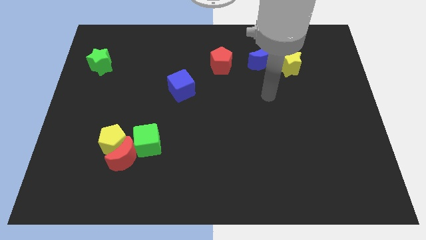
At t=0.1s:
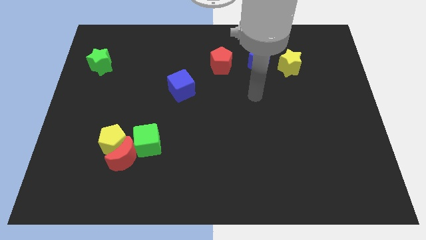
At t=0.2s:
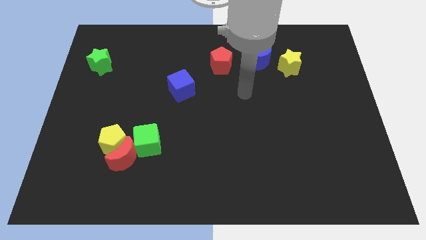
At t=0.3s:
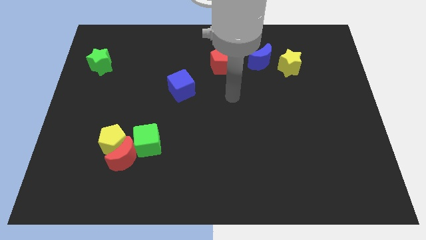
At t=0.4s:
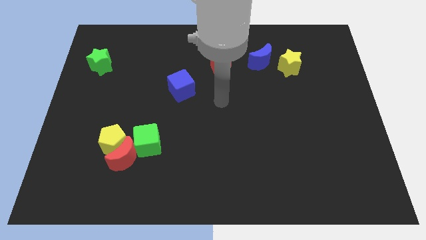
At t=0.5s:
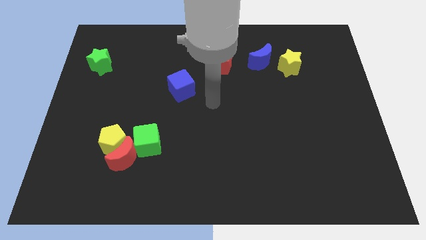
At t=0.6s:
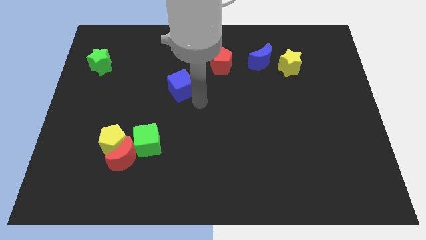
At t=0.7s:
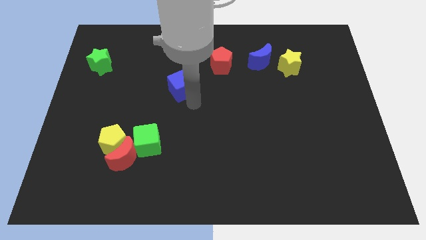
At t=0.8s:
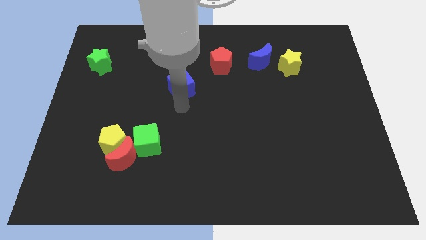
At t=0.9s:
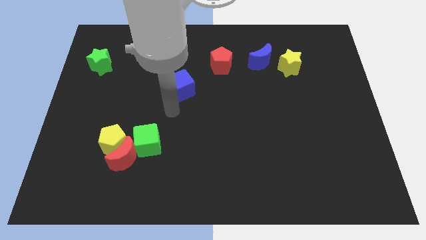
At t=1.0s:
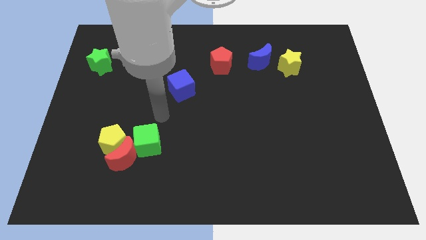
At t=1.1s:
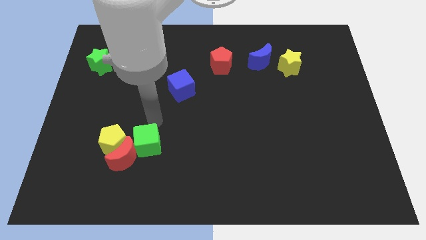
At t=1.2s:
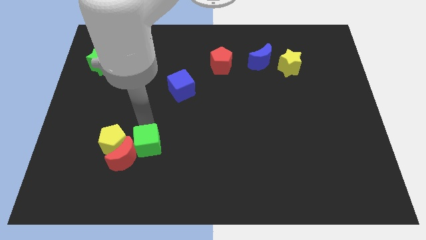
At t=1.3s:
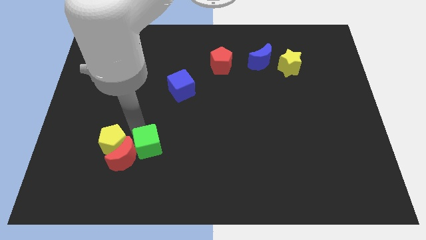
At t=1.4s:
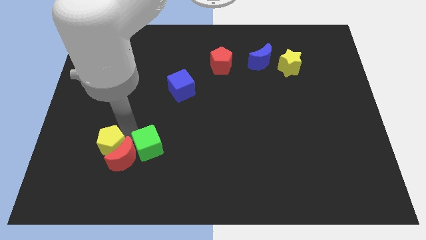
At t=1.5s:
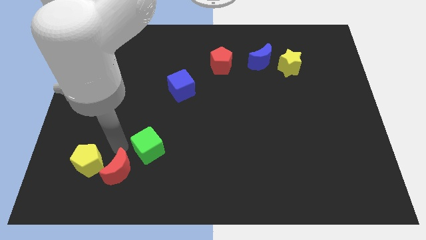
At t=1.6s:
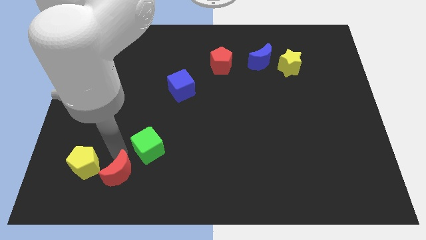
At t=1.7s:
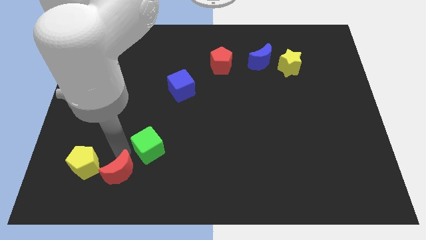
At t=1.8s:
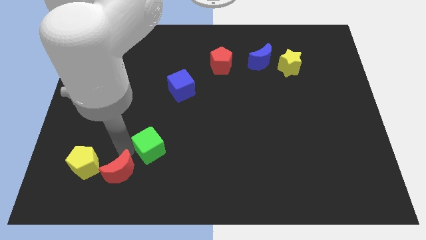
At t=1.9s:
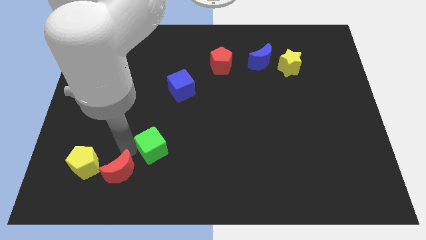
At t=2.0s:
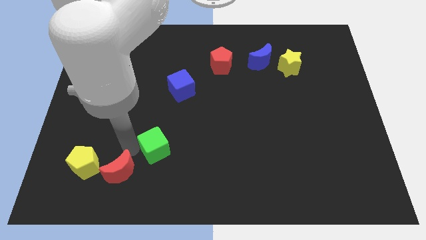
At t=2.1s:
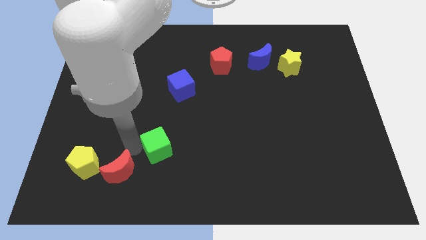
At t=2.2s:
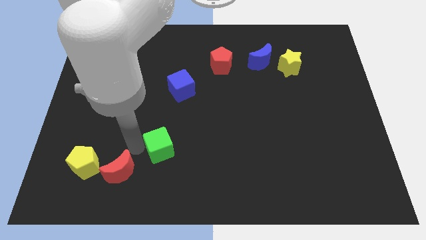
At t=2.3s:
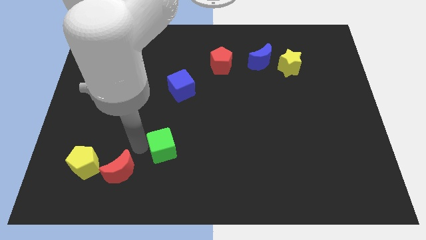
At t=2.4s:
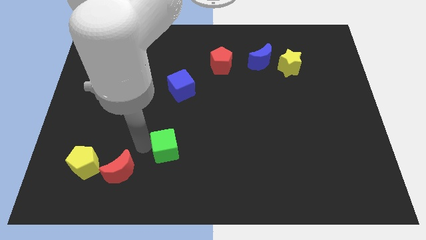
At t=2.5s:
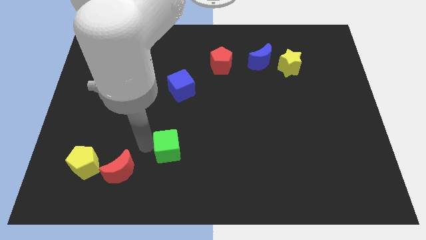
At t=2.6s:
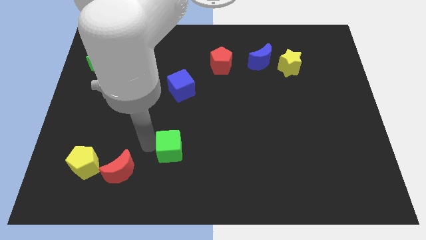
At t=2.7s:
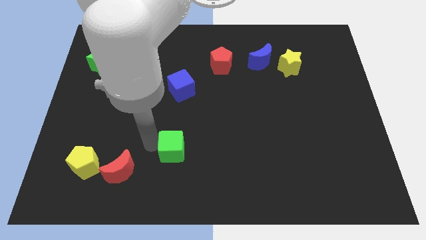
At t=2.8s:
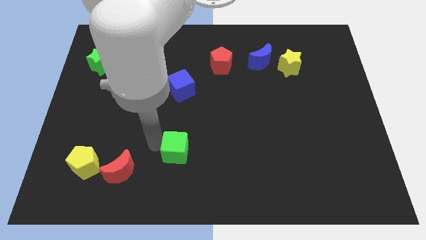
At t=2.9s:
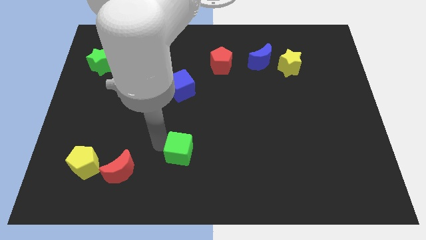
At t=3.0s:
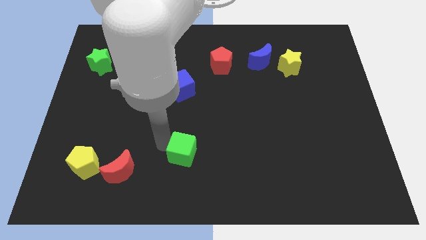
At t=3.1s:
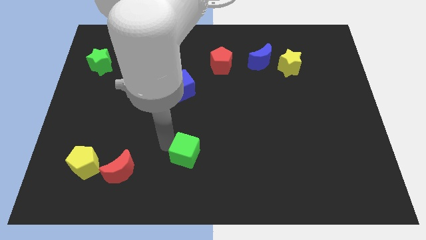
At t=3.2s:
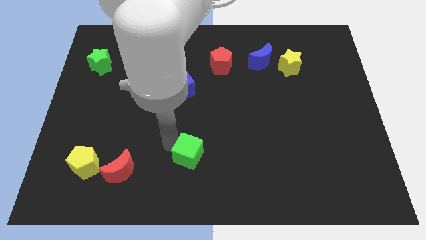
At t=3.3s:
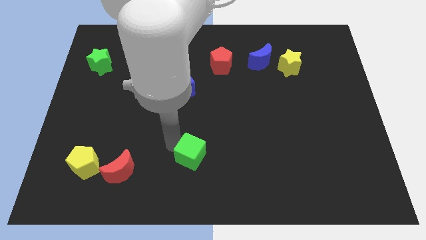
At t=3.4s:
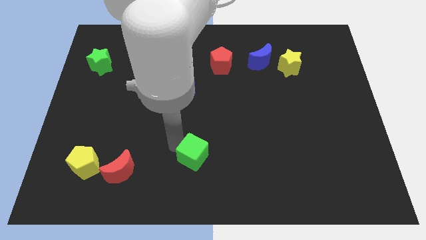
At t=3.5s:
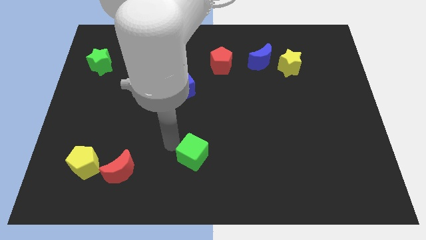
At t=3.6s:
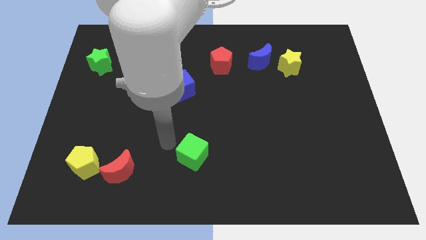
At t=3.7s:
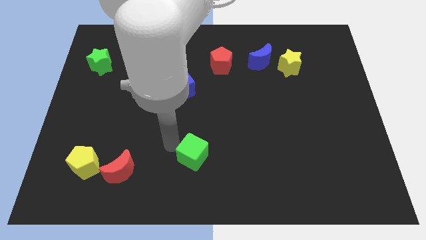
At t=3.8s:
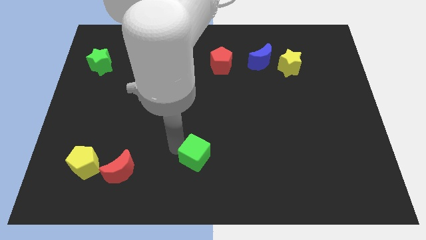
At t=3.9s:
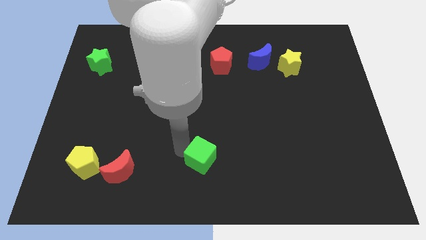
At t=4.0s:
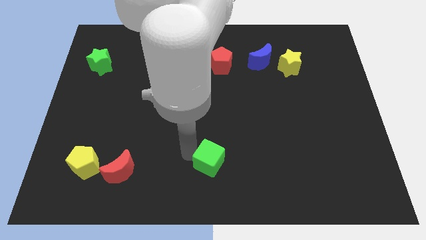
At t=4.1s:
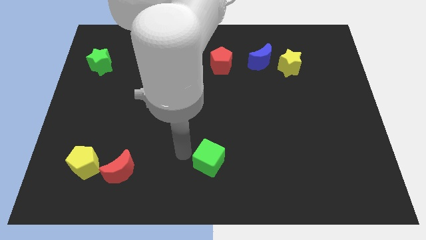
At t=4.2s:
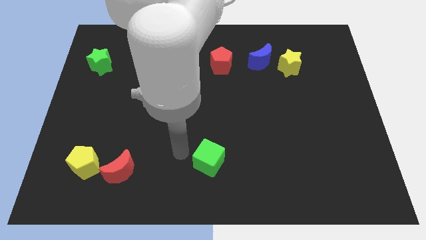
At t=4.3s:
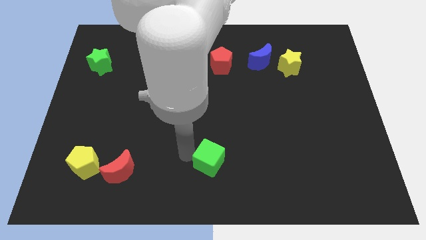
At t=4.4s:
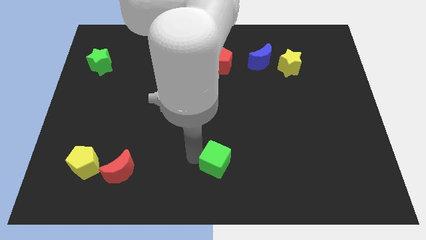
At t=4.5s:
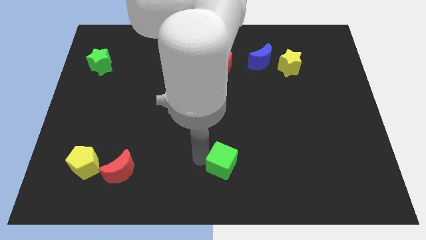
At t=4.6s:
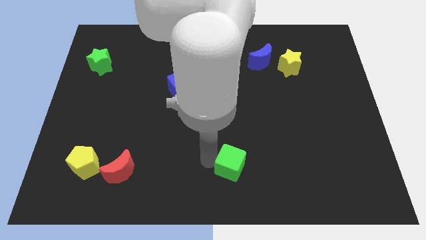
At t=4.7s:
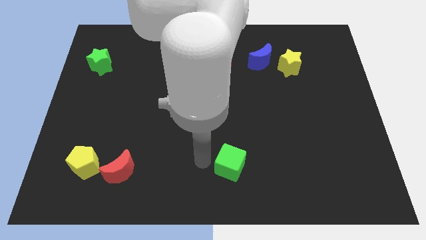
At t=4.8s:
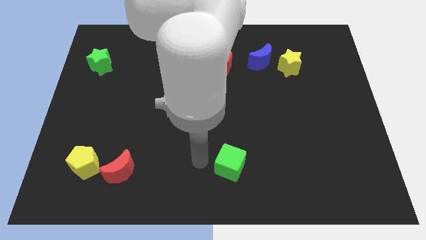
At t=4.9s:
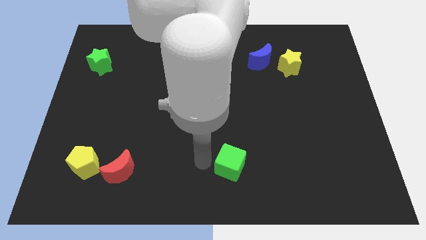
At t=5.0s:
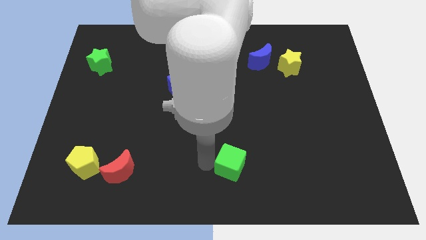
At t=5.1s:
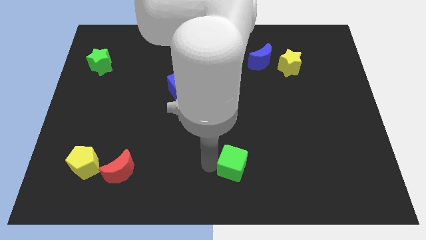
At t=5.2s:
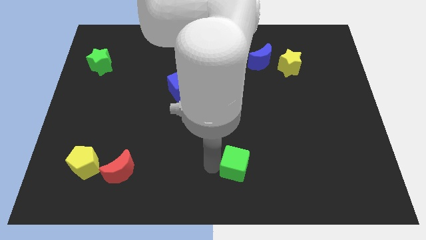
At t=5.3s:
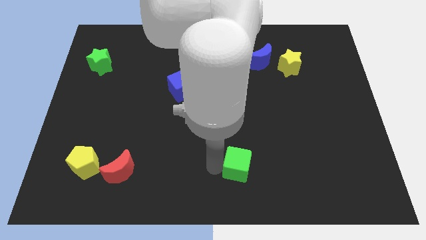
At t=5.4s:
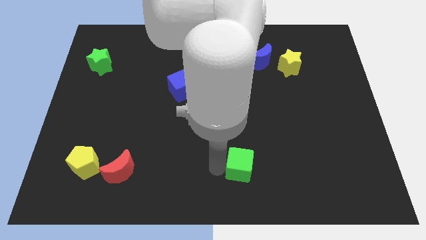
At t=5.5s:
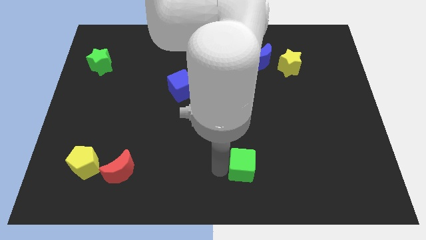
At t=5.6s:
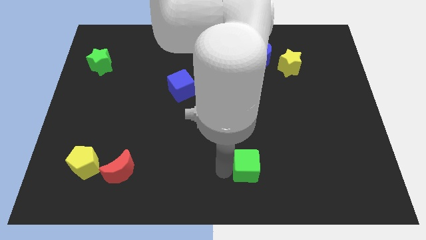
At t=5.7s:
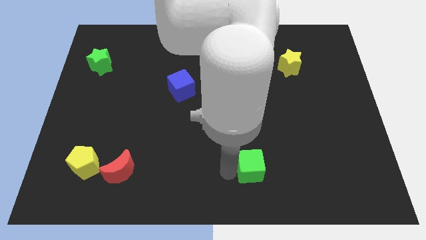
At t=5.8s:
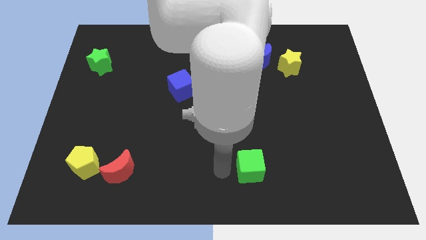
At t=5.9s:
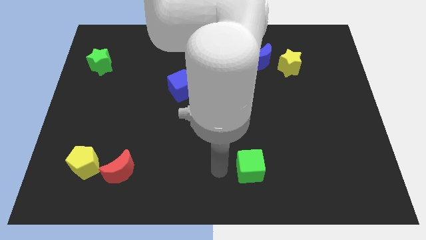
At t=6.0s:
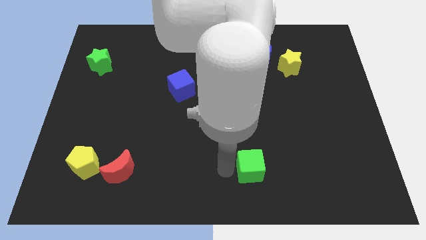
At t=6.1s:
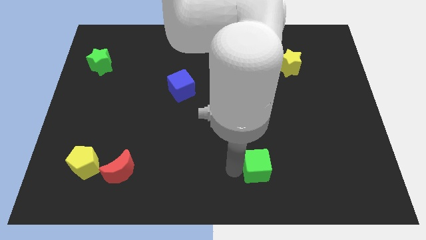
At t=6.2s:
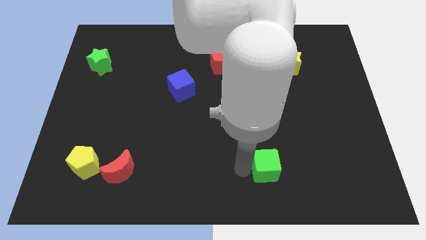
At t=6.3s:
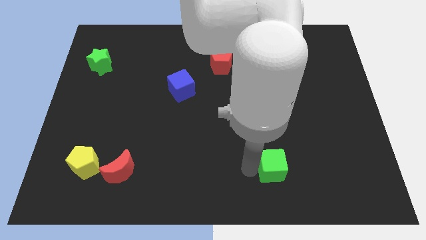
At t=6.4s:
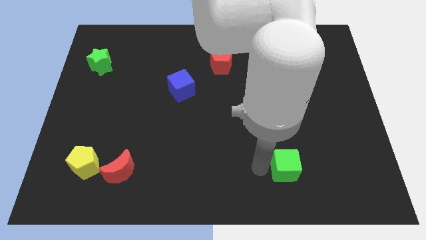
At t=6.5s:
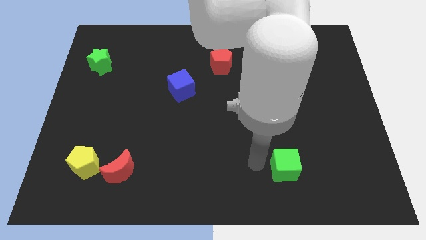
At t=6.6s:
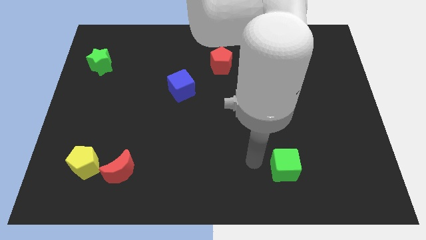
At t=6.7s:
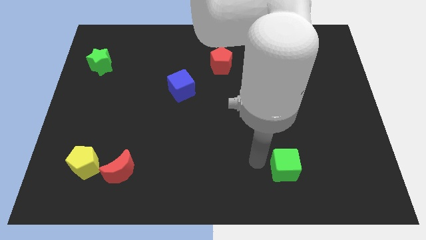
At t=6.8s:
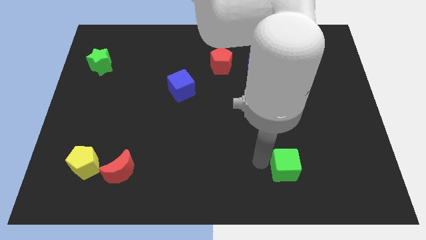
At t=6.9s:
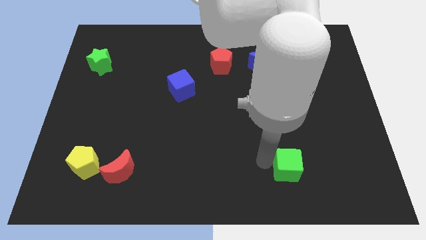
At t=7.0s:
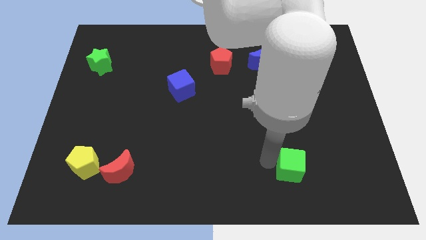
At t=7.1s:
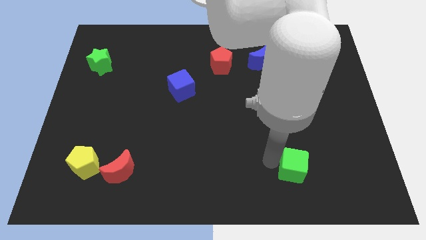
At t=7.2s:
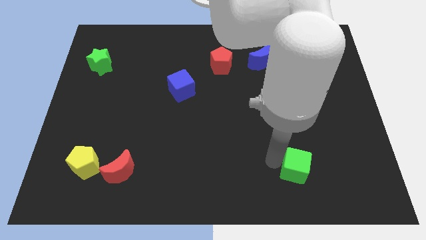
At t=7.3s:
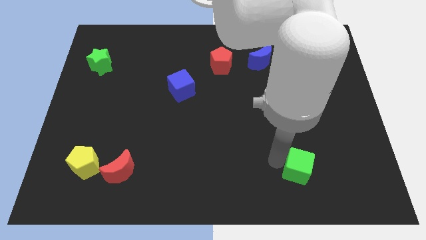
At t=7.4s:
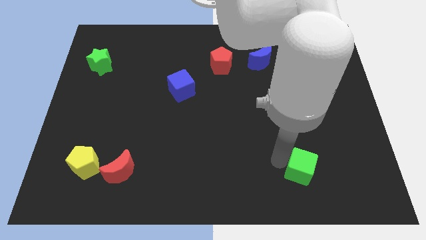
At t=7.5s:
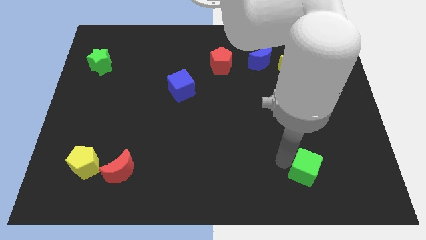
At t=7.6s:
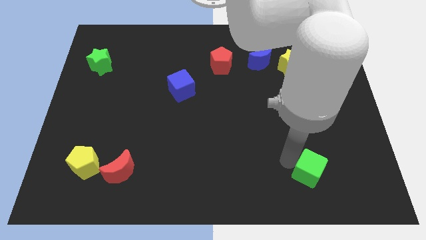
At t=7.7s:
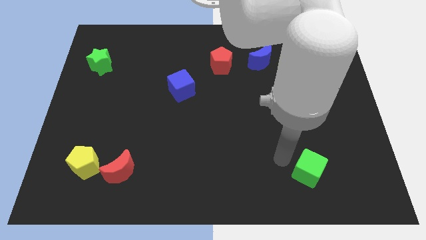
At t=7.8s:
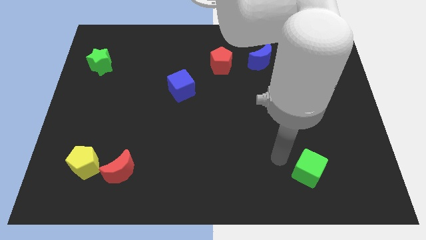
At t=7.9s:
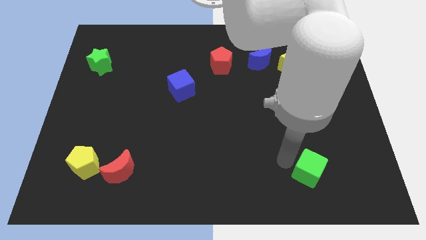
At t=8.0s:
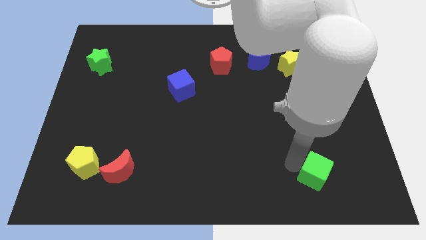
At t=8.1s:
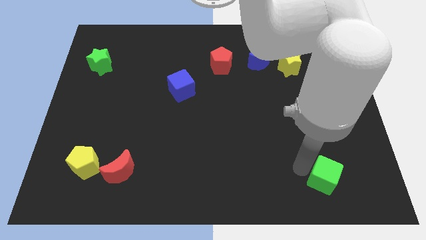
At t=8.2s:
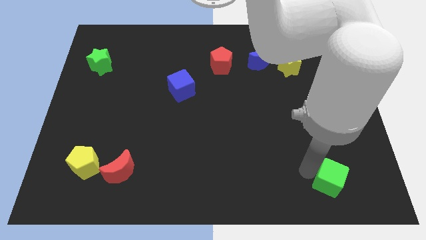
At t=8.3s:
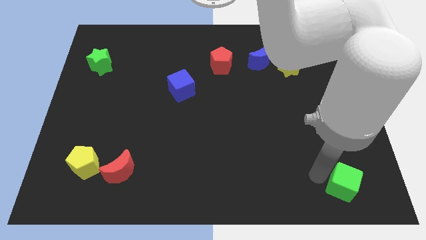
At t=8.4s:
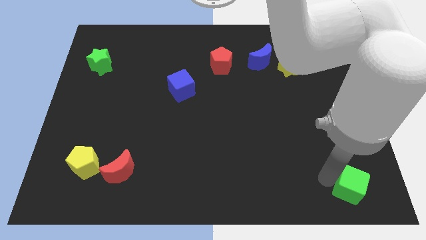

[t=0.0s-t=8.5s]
move the green cube to the bottom right of the board
